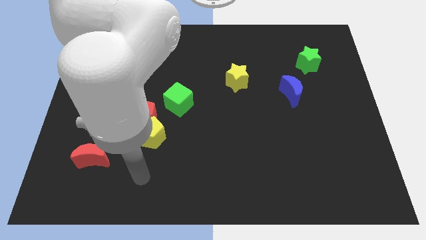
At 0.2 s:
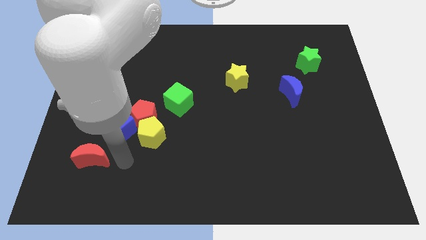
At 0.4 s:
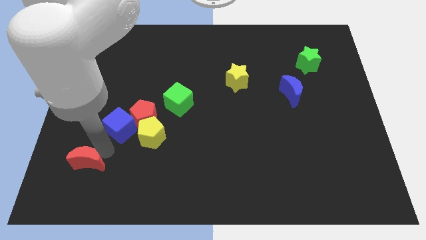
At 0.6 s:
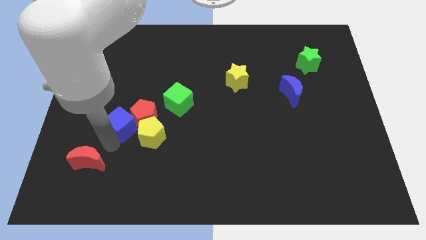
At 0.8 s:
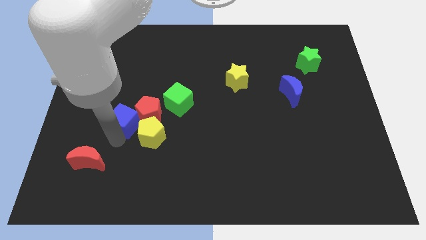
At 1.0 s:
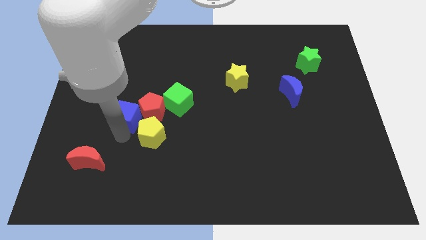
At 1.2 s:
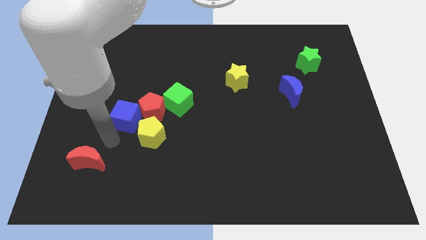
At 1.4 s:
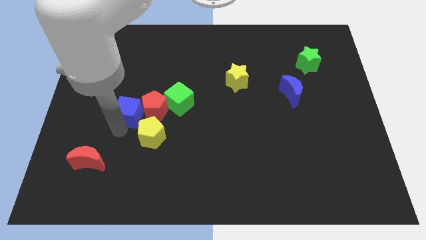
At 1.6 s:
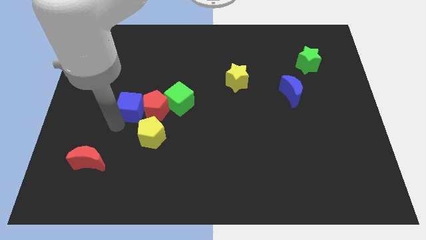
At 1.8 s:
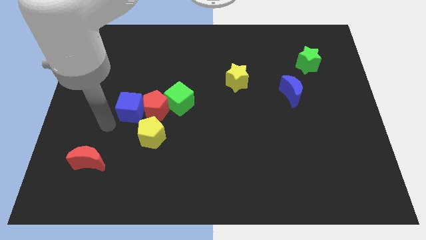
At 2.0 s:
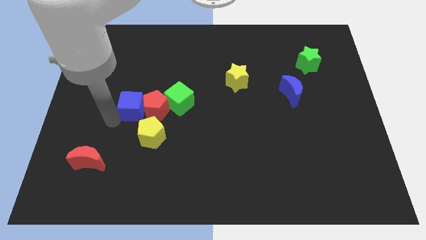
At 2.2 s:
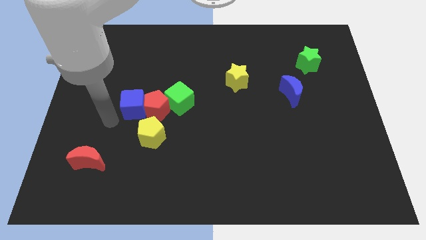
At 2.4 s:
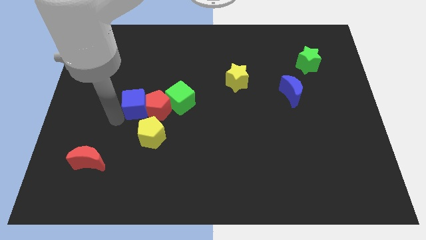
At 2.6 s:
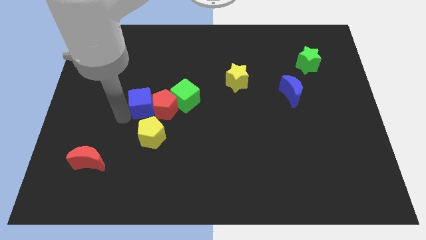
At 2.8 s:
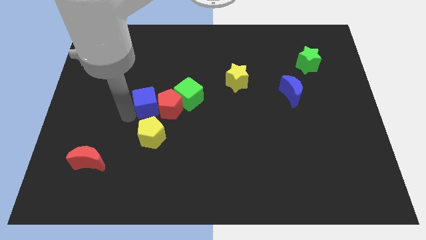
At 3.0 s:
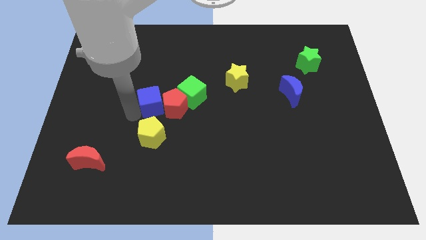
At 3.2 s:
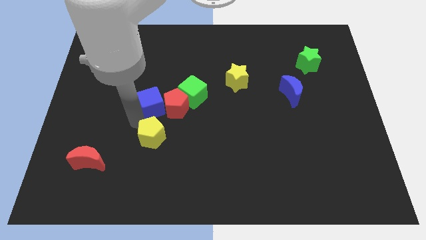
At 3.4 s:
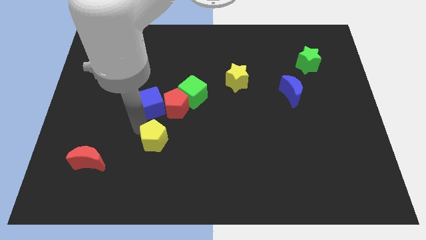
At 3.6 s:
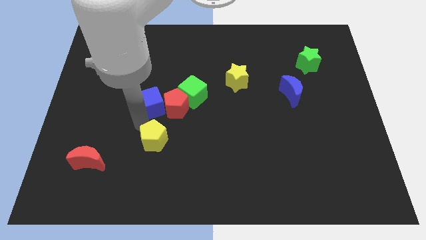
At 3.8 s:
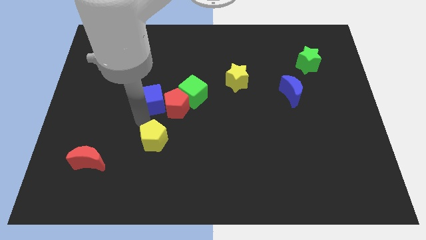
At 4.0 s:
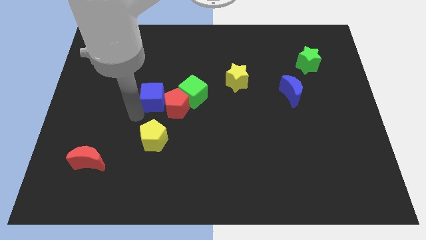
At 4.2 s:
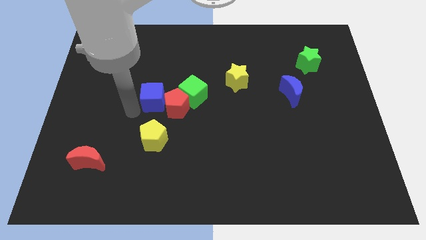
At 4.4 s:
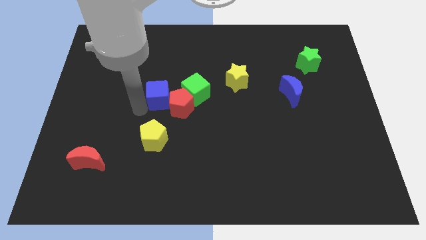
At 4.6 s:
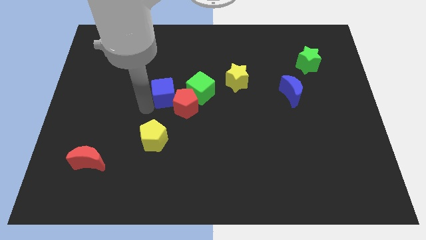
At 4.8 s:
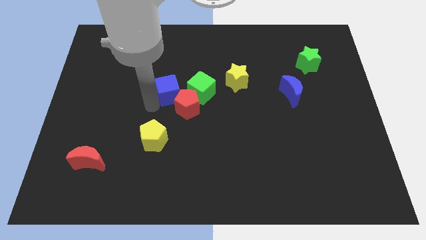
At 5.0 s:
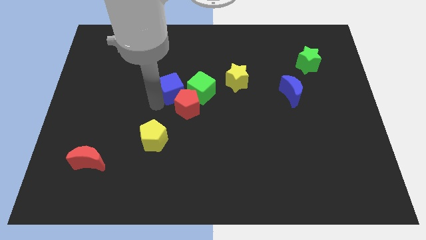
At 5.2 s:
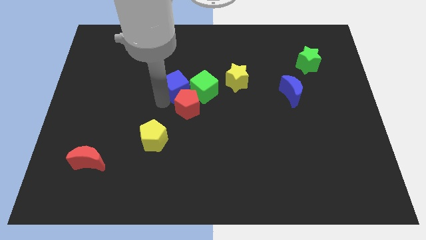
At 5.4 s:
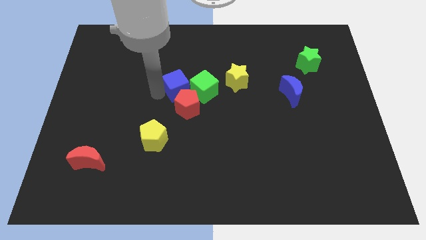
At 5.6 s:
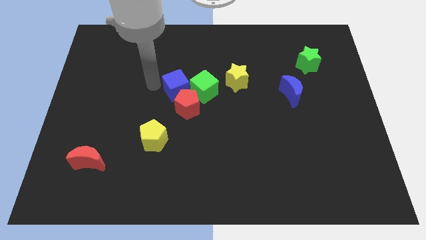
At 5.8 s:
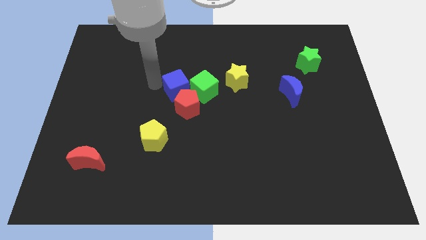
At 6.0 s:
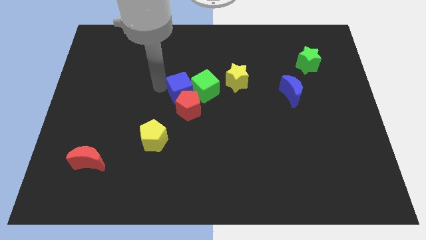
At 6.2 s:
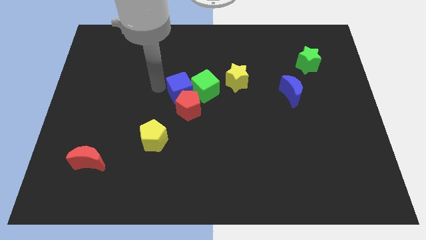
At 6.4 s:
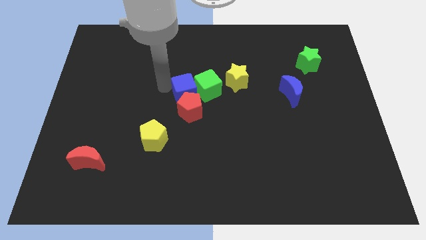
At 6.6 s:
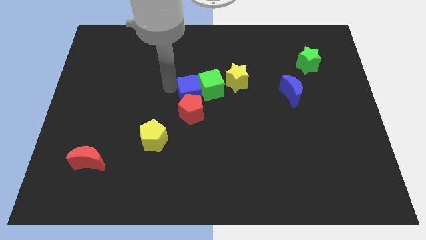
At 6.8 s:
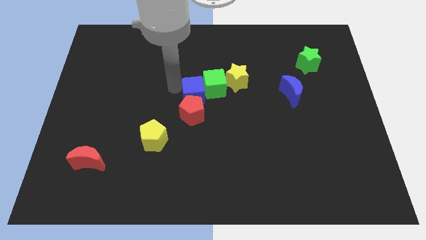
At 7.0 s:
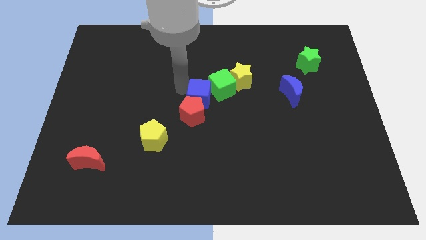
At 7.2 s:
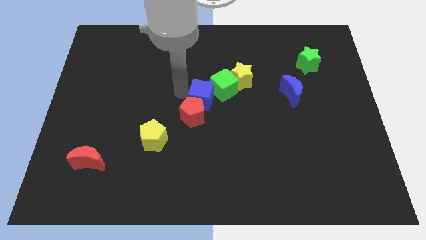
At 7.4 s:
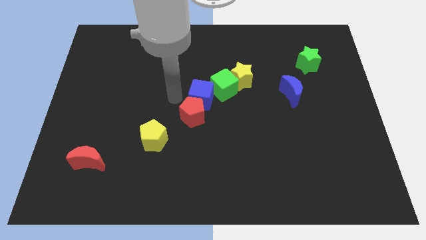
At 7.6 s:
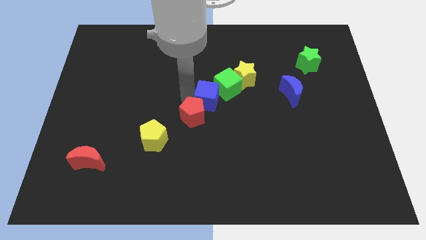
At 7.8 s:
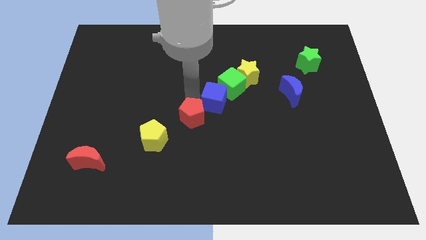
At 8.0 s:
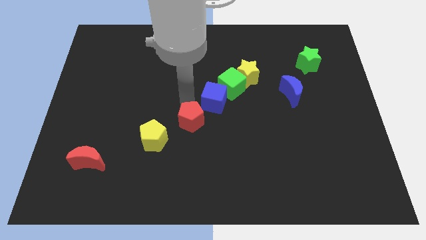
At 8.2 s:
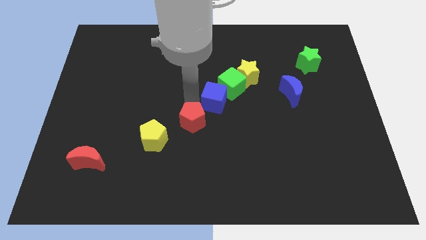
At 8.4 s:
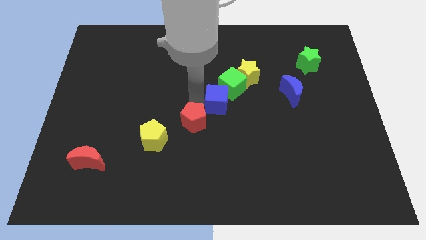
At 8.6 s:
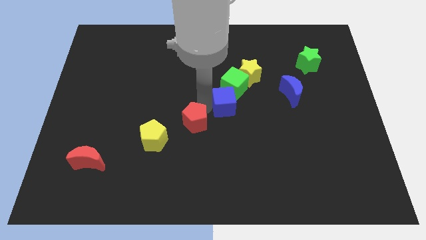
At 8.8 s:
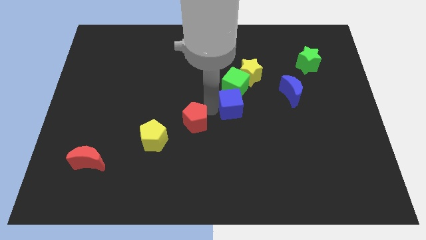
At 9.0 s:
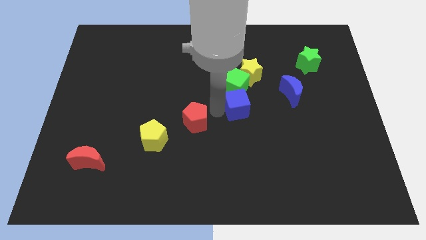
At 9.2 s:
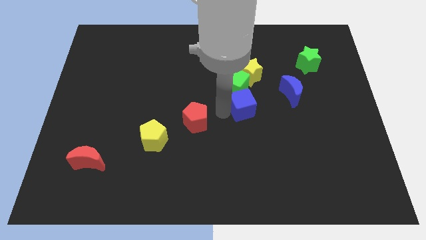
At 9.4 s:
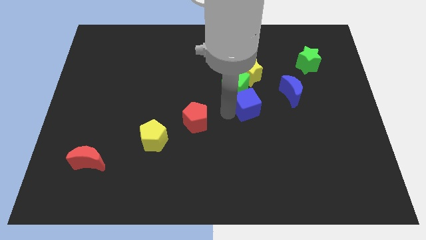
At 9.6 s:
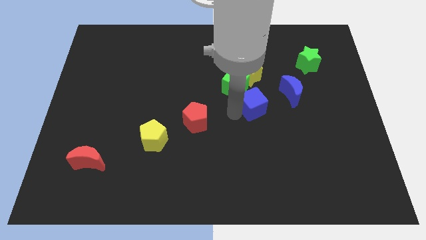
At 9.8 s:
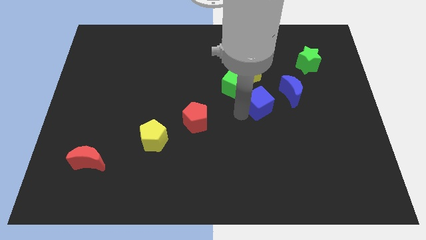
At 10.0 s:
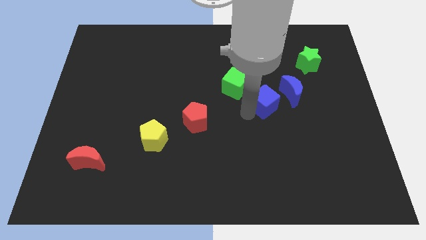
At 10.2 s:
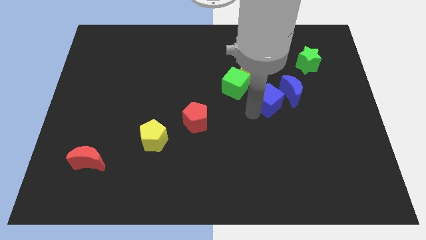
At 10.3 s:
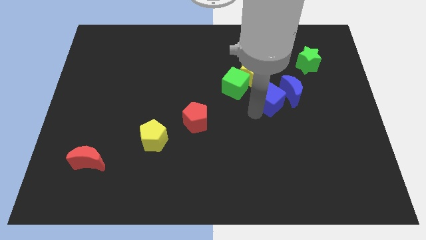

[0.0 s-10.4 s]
slide the blue cube close to the blue moon

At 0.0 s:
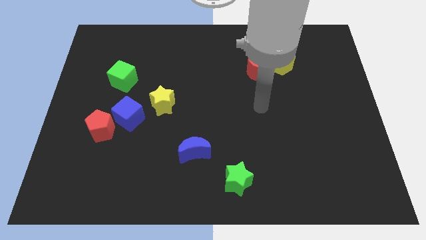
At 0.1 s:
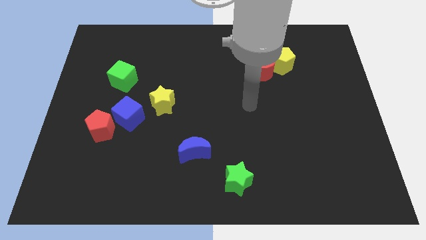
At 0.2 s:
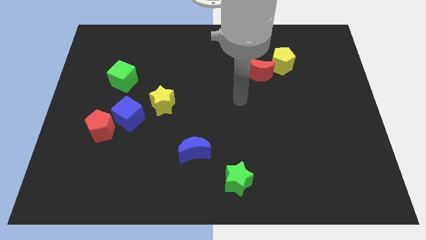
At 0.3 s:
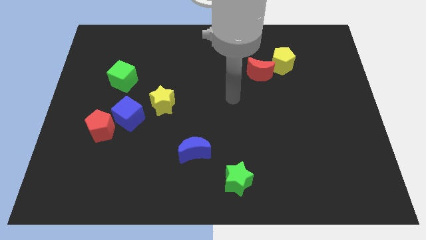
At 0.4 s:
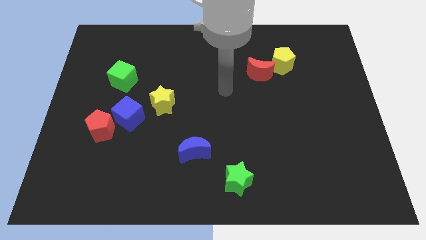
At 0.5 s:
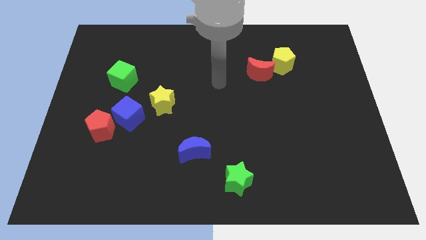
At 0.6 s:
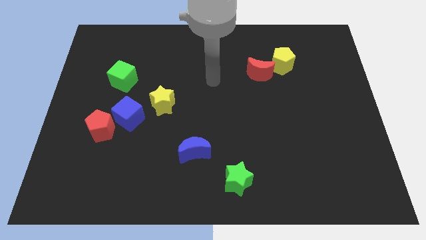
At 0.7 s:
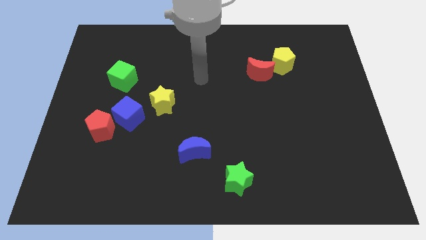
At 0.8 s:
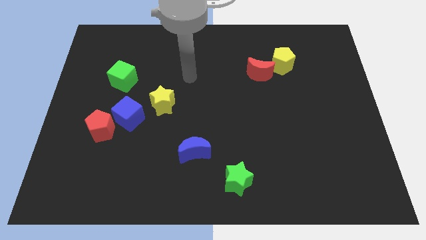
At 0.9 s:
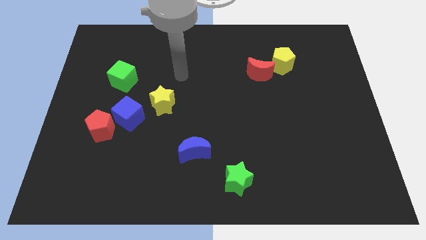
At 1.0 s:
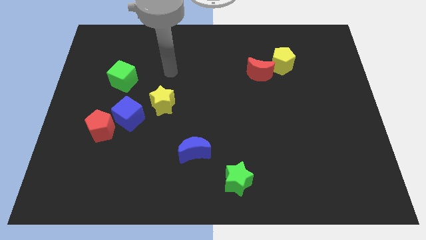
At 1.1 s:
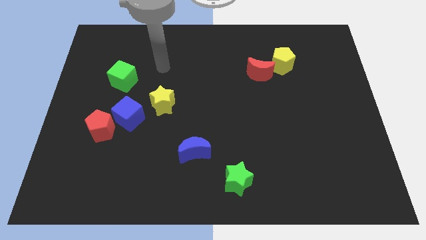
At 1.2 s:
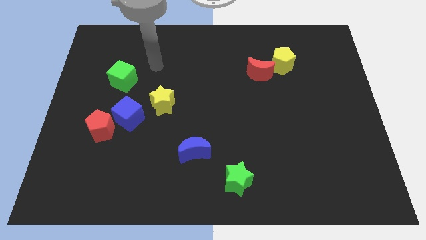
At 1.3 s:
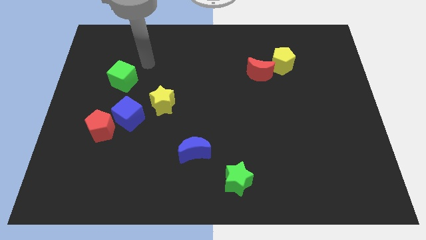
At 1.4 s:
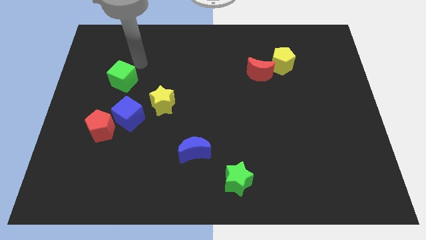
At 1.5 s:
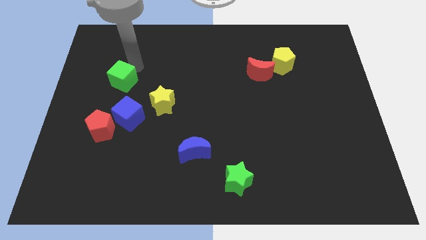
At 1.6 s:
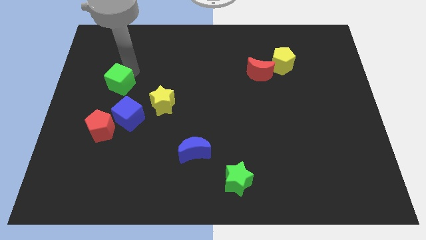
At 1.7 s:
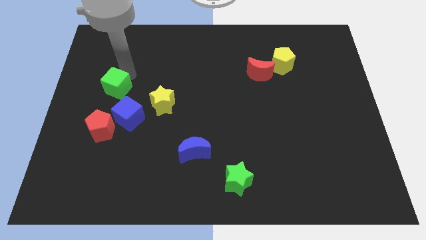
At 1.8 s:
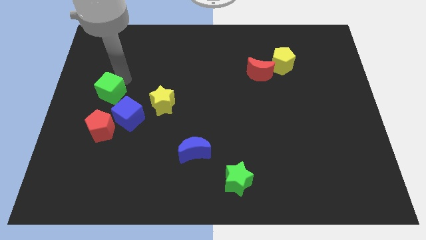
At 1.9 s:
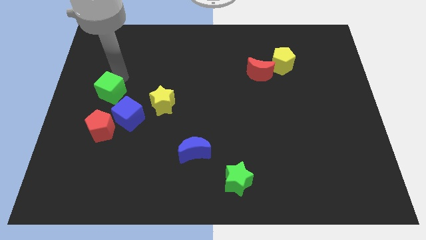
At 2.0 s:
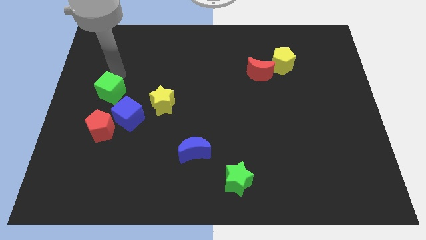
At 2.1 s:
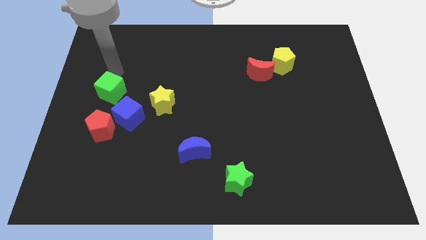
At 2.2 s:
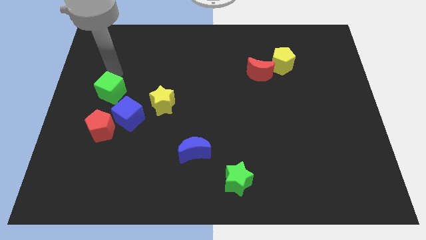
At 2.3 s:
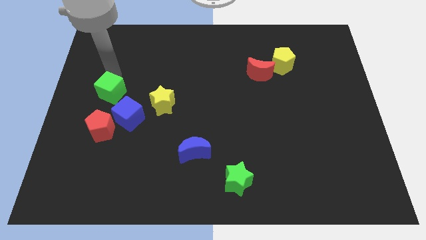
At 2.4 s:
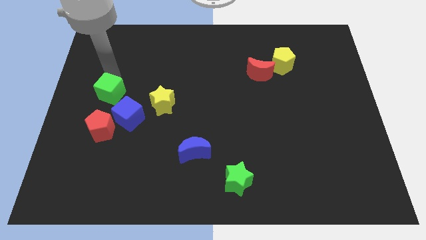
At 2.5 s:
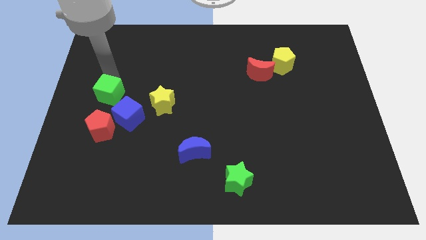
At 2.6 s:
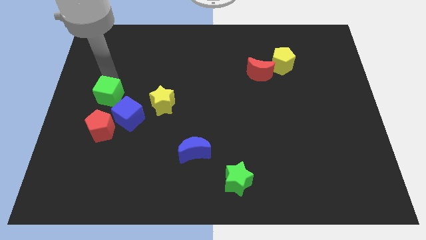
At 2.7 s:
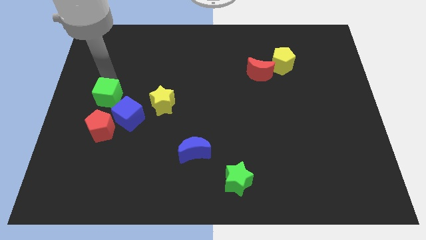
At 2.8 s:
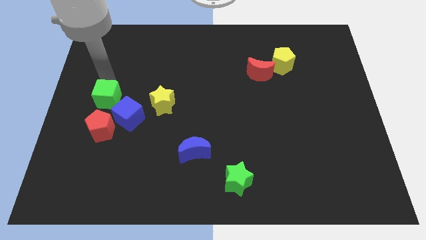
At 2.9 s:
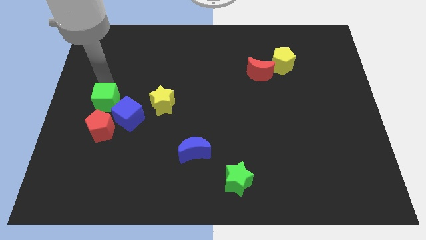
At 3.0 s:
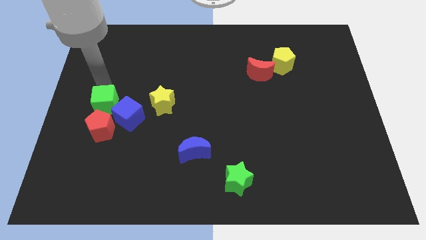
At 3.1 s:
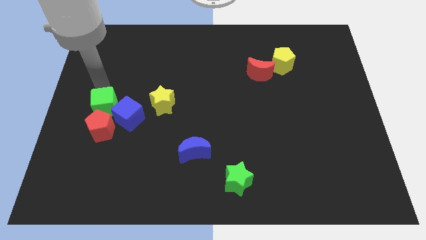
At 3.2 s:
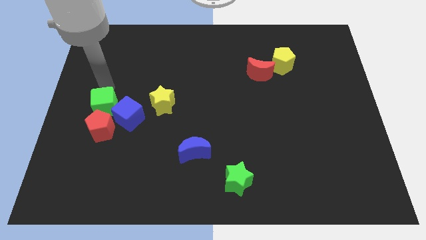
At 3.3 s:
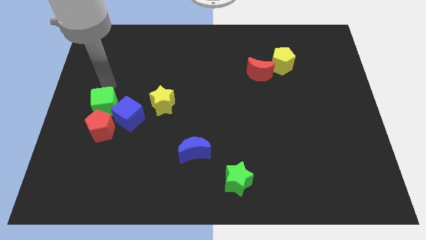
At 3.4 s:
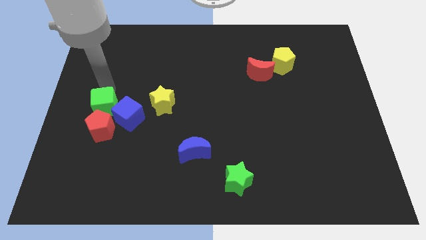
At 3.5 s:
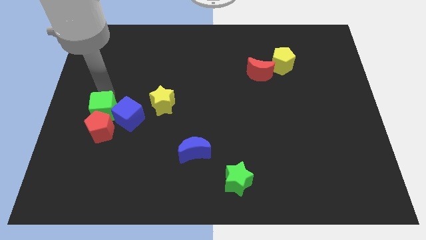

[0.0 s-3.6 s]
slide the green cube next to the red pentagon
